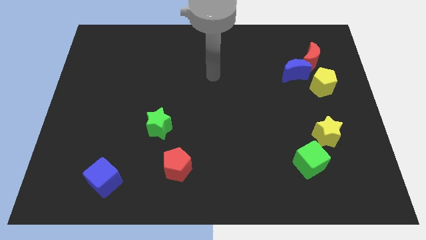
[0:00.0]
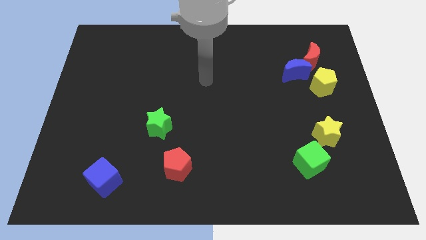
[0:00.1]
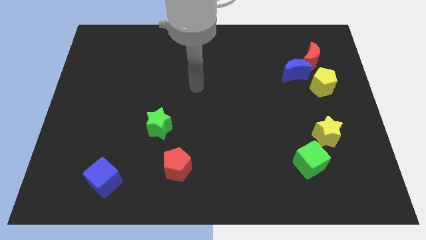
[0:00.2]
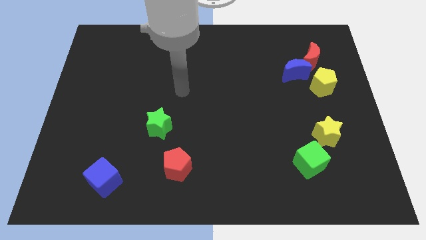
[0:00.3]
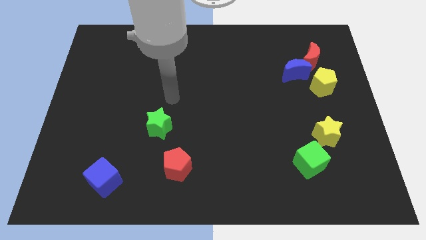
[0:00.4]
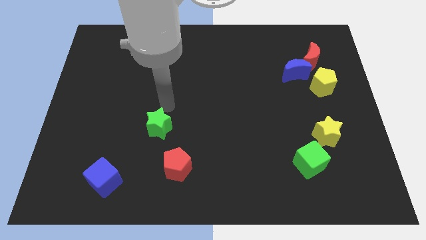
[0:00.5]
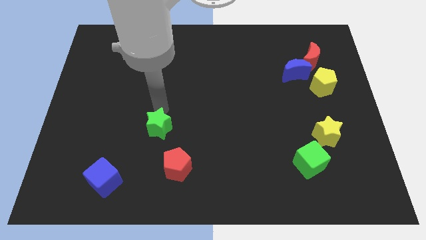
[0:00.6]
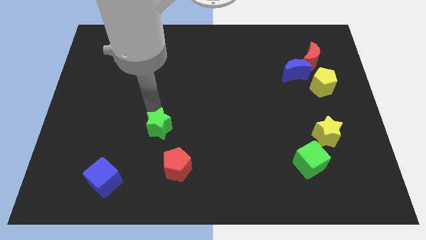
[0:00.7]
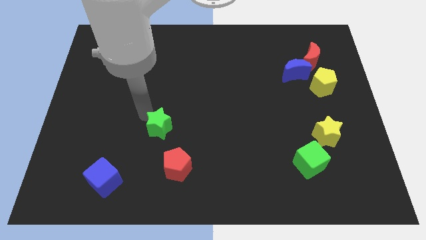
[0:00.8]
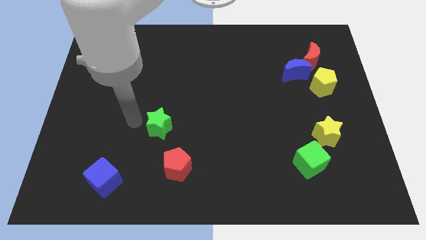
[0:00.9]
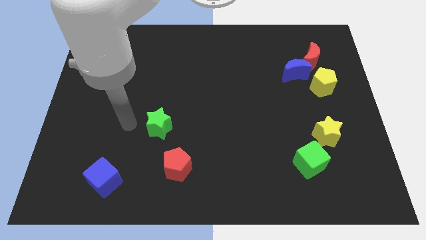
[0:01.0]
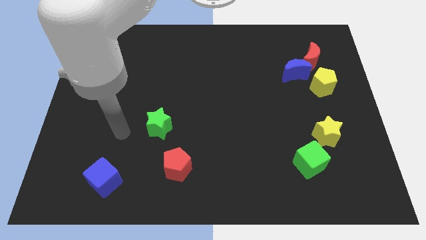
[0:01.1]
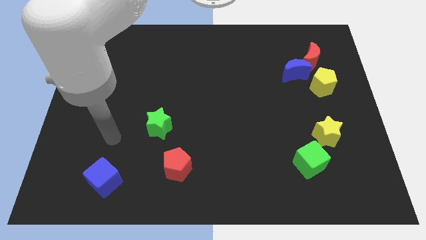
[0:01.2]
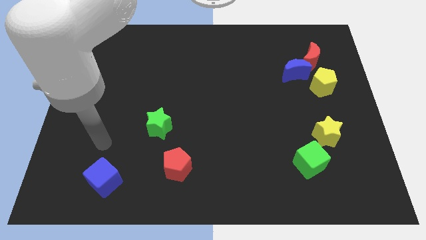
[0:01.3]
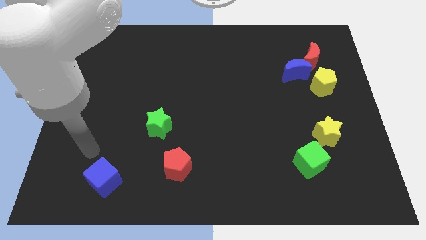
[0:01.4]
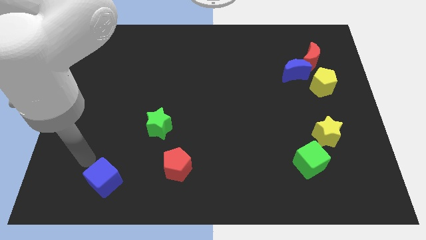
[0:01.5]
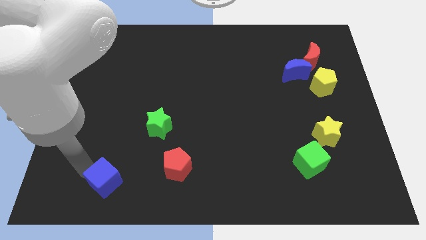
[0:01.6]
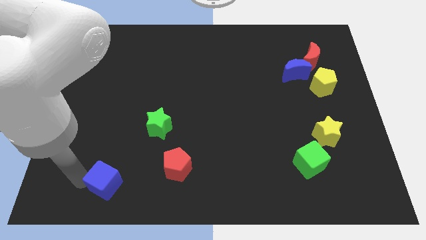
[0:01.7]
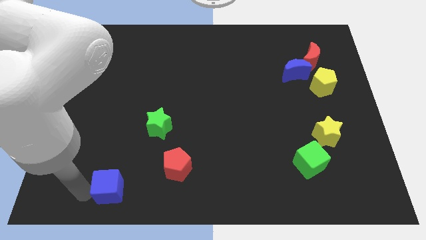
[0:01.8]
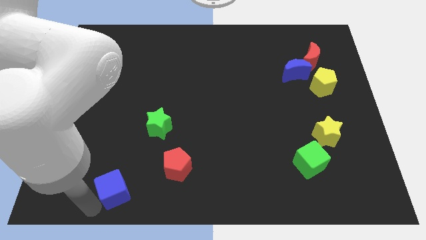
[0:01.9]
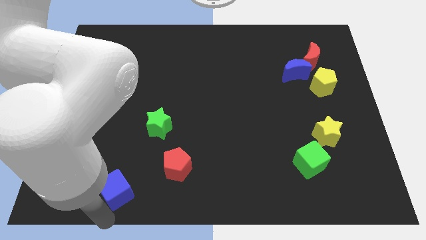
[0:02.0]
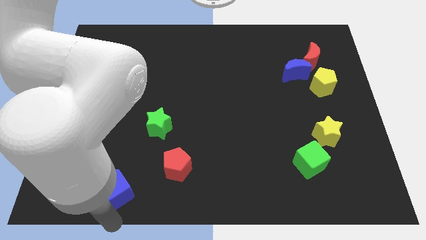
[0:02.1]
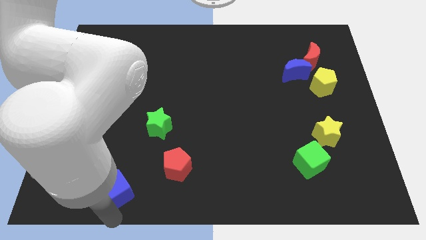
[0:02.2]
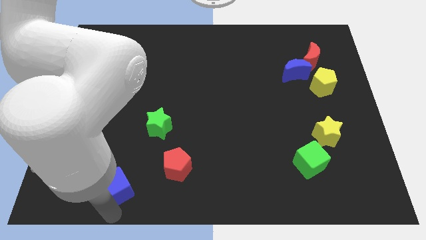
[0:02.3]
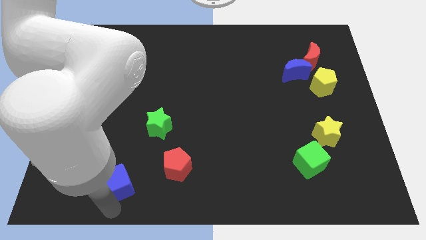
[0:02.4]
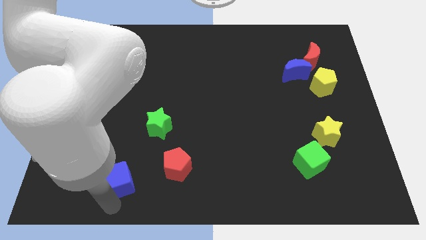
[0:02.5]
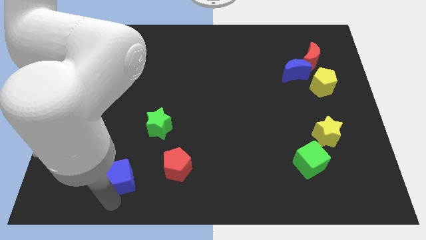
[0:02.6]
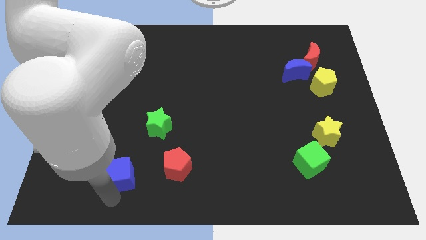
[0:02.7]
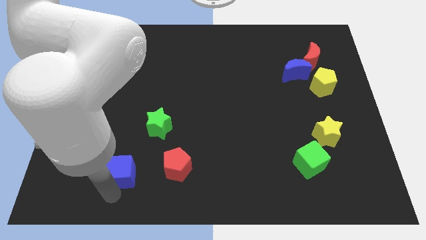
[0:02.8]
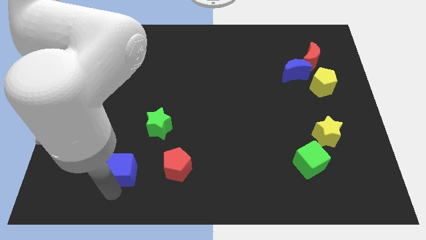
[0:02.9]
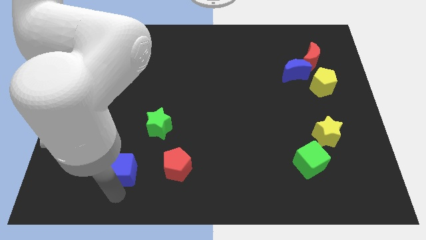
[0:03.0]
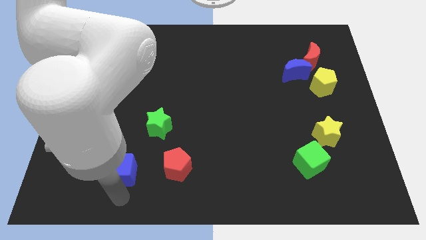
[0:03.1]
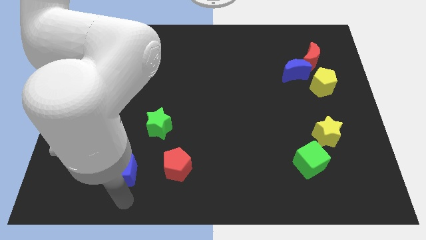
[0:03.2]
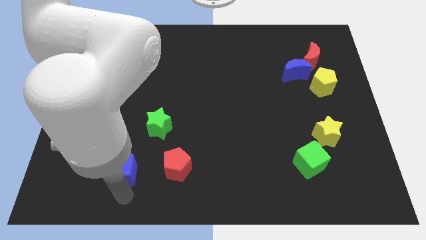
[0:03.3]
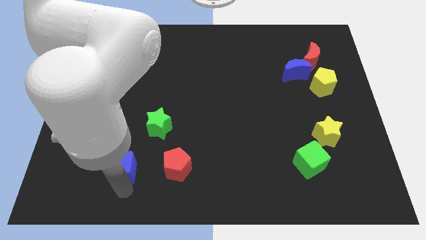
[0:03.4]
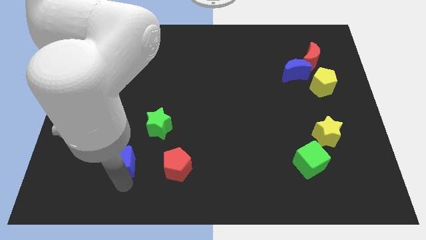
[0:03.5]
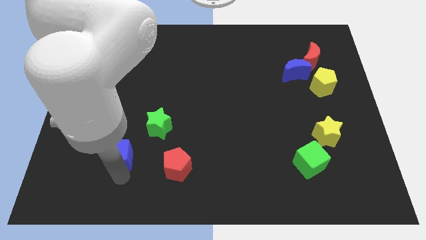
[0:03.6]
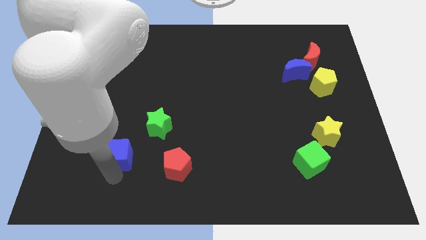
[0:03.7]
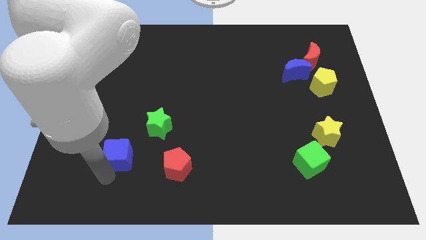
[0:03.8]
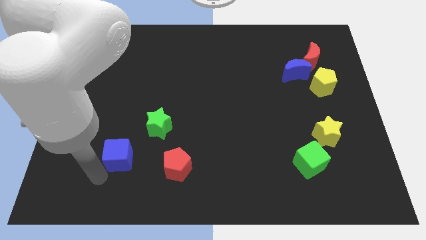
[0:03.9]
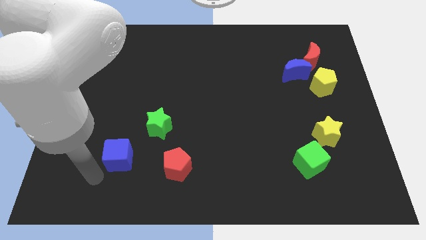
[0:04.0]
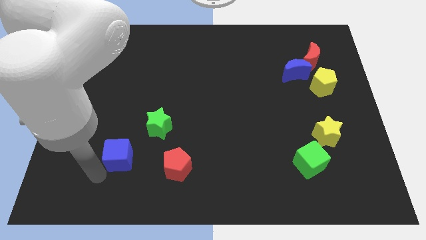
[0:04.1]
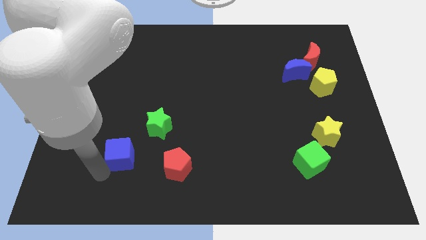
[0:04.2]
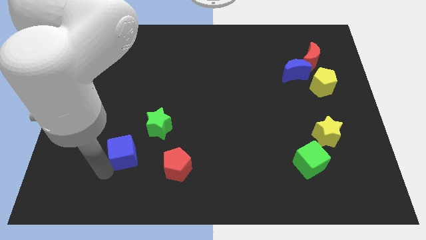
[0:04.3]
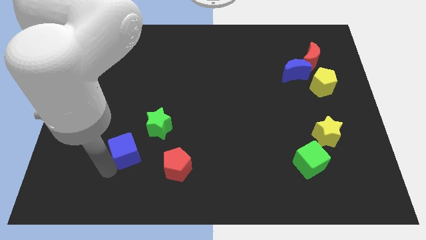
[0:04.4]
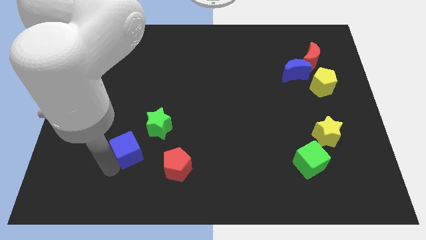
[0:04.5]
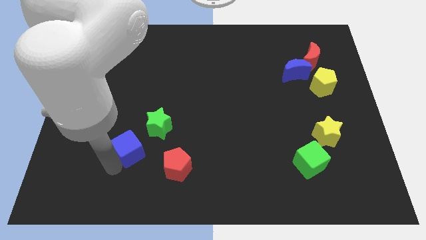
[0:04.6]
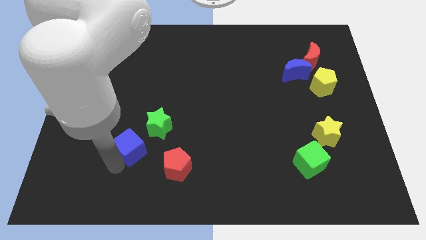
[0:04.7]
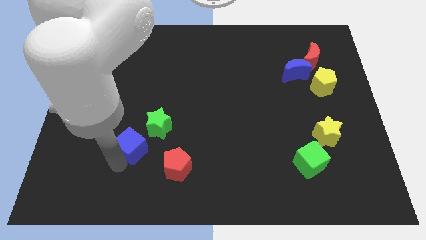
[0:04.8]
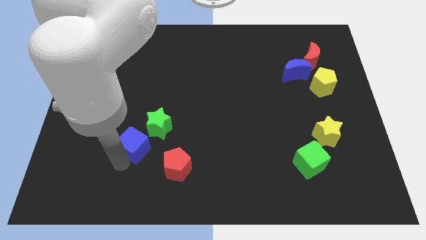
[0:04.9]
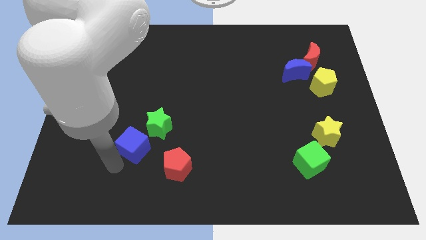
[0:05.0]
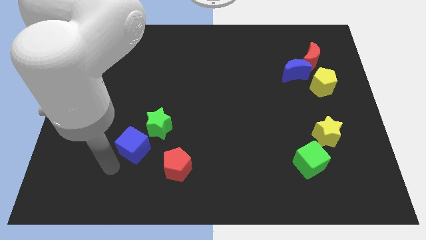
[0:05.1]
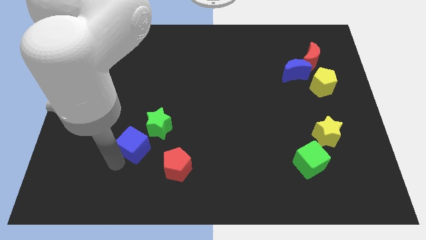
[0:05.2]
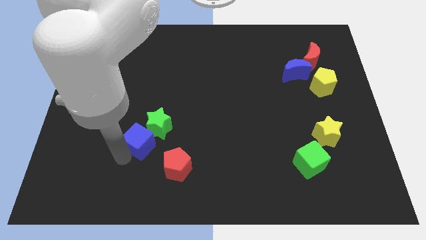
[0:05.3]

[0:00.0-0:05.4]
push the blue cube to the green star

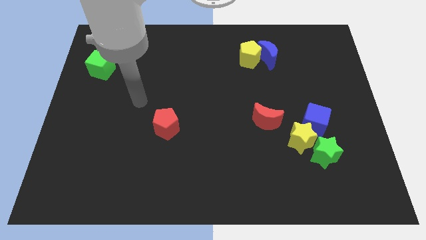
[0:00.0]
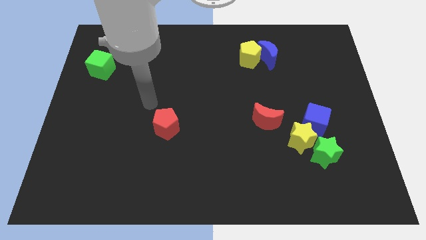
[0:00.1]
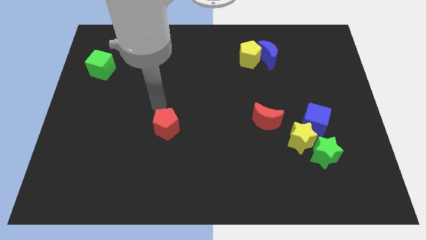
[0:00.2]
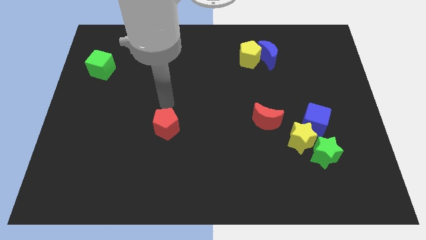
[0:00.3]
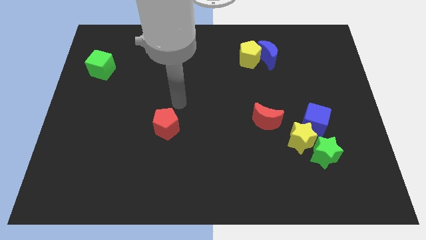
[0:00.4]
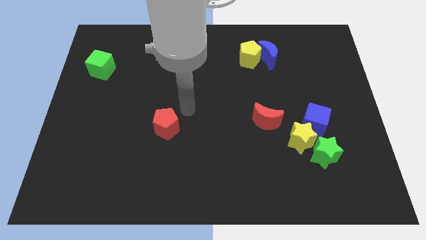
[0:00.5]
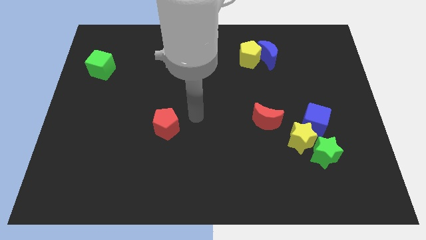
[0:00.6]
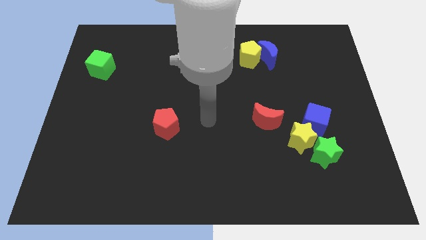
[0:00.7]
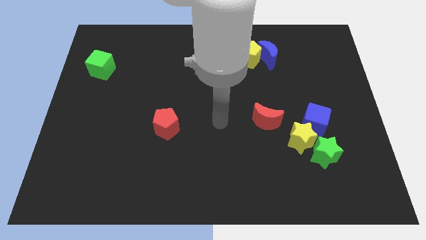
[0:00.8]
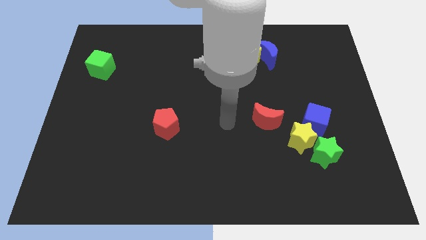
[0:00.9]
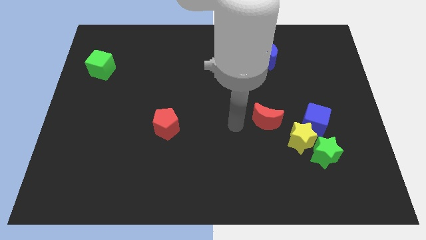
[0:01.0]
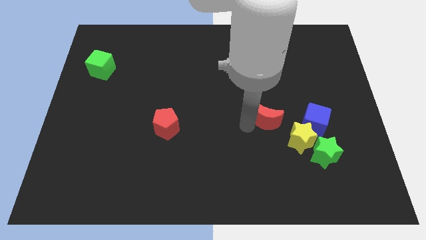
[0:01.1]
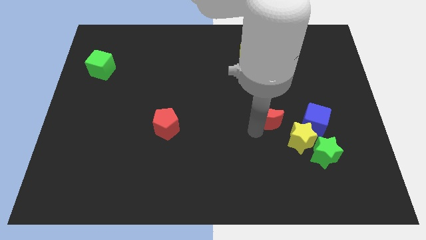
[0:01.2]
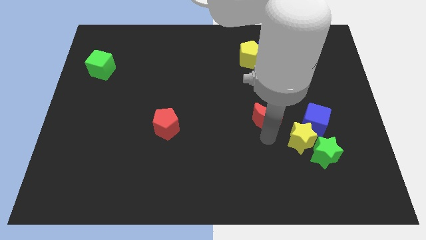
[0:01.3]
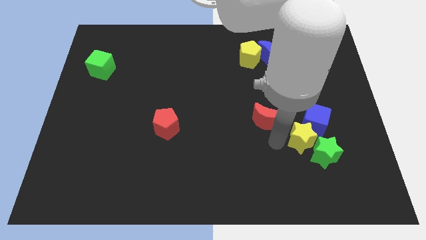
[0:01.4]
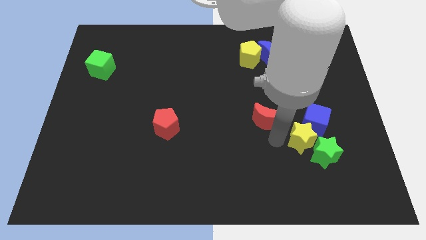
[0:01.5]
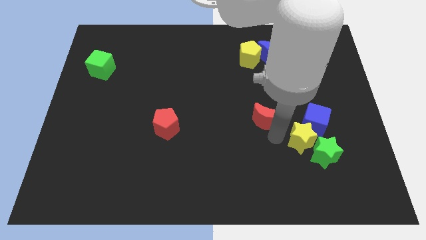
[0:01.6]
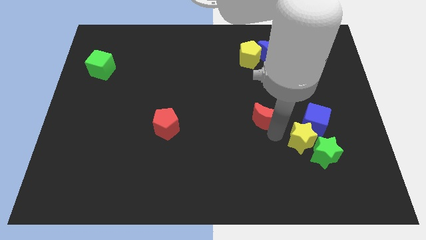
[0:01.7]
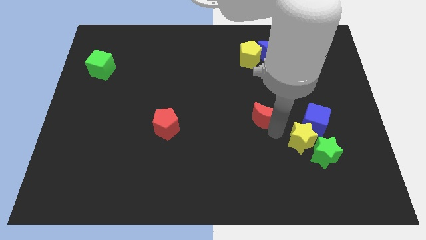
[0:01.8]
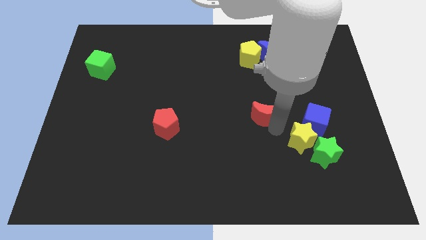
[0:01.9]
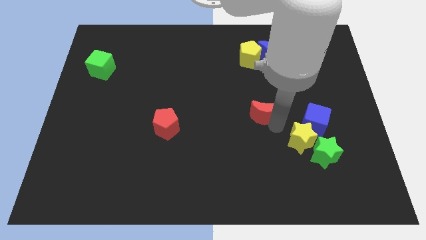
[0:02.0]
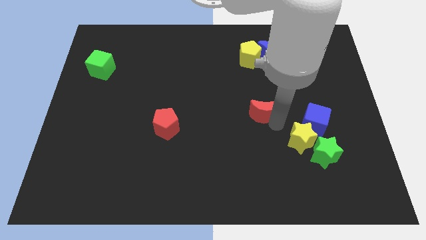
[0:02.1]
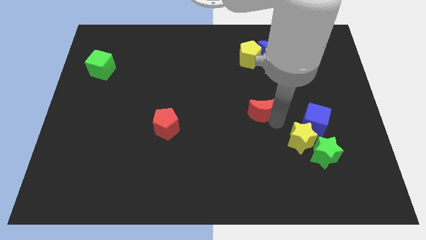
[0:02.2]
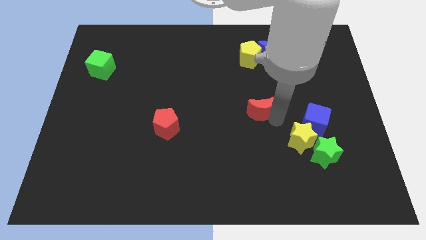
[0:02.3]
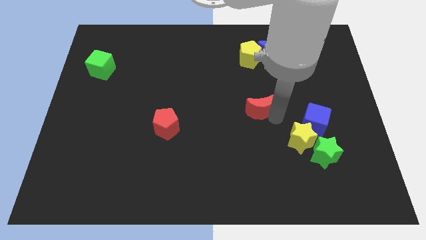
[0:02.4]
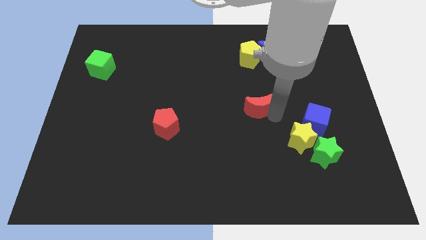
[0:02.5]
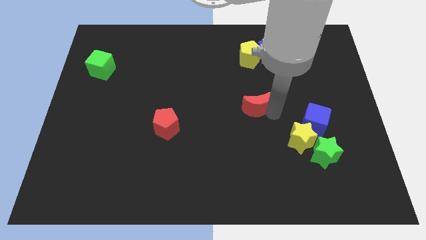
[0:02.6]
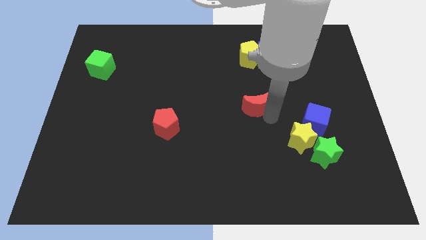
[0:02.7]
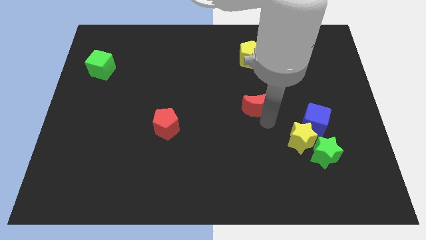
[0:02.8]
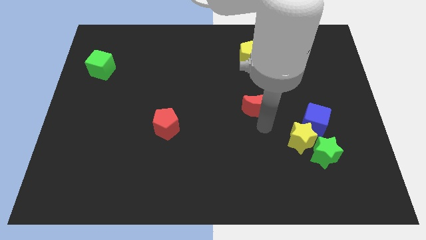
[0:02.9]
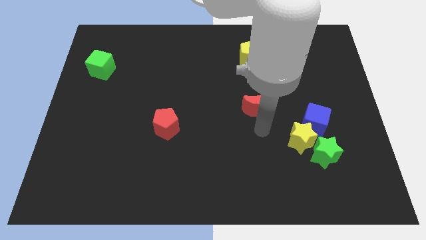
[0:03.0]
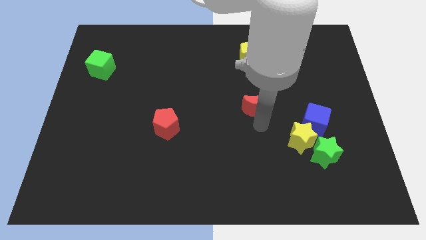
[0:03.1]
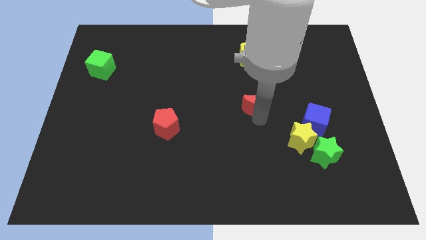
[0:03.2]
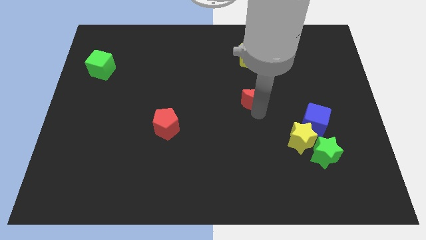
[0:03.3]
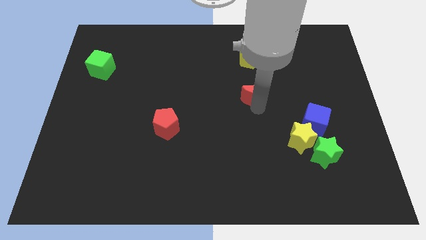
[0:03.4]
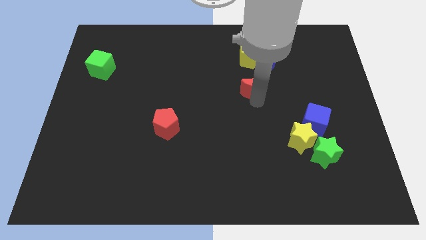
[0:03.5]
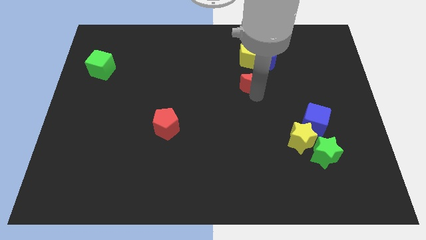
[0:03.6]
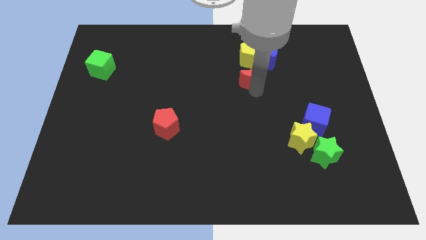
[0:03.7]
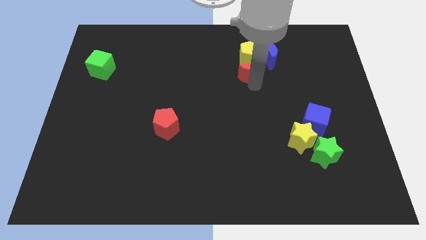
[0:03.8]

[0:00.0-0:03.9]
move the red moon towards the yellow pentagon
